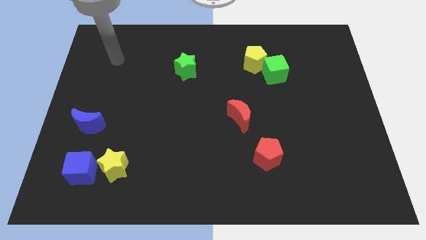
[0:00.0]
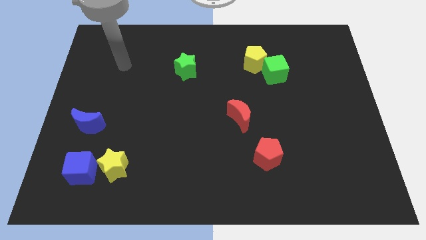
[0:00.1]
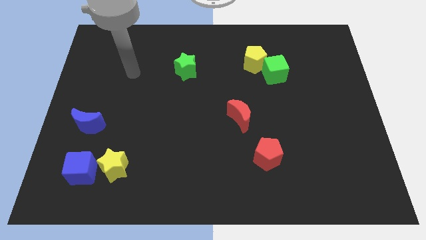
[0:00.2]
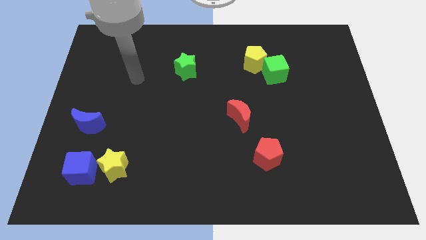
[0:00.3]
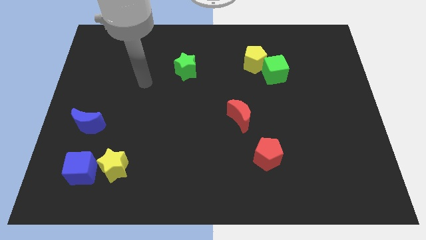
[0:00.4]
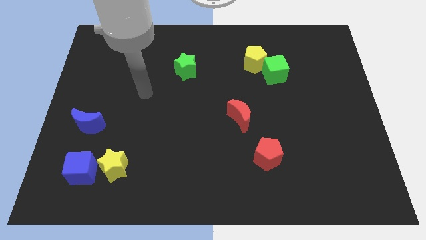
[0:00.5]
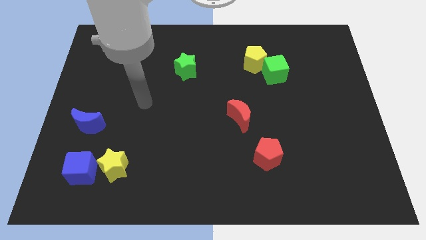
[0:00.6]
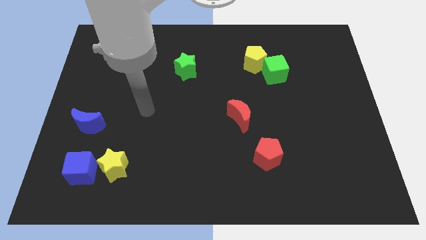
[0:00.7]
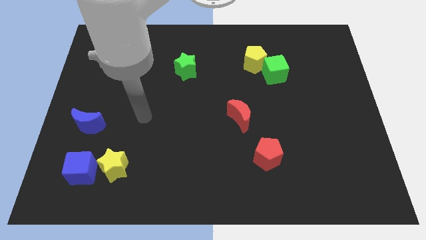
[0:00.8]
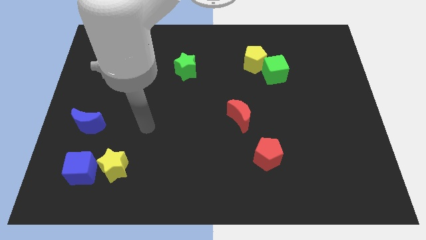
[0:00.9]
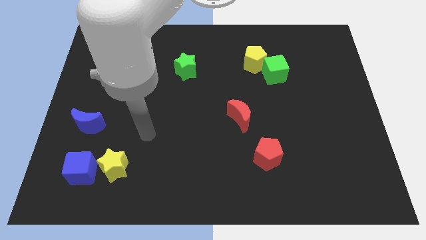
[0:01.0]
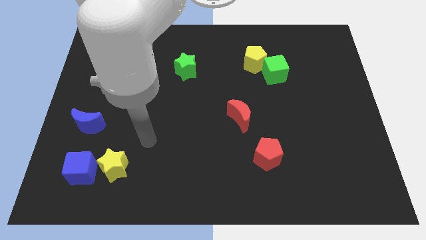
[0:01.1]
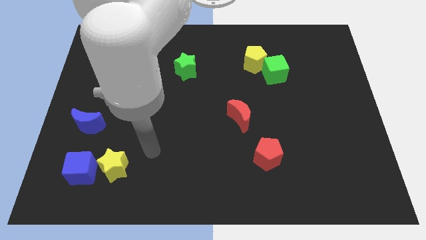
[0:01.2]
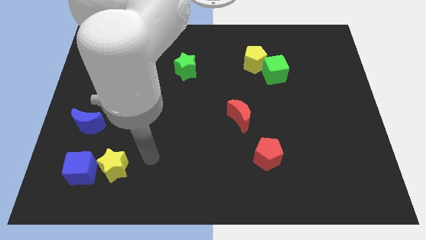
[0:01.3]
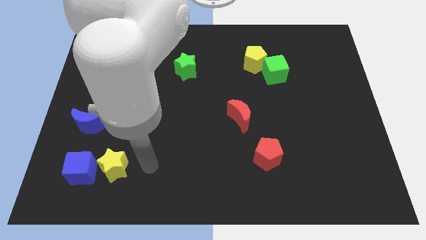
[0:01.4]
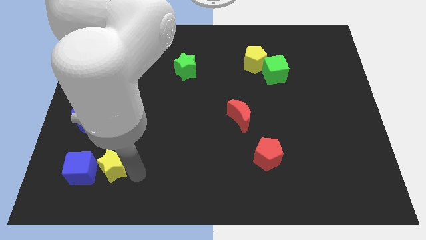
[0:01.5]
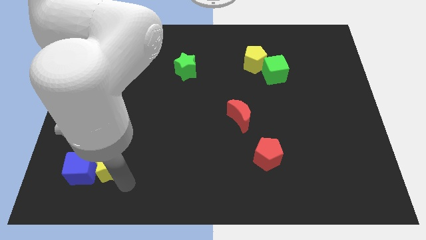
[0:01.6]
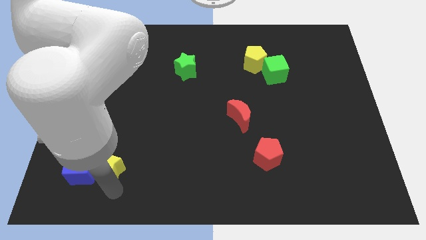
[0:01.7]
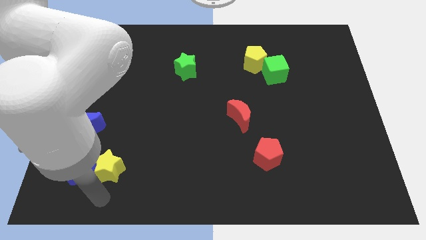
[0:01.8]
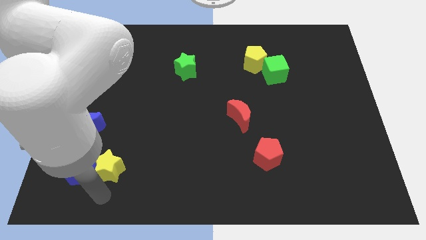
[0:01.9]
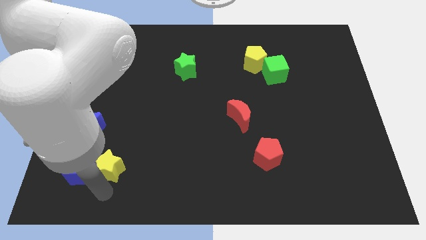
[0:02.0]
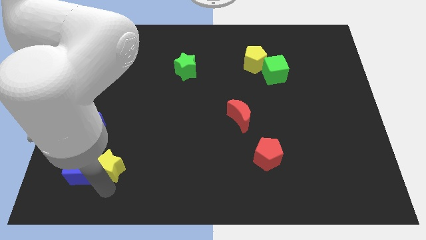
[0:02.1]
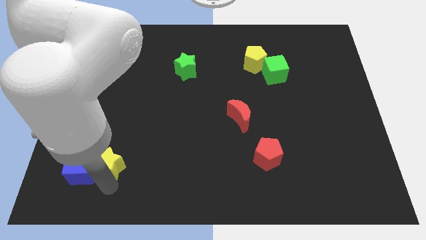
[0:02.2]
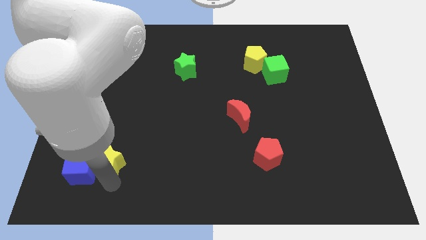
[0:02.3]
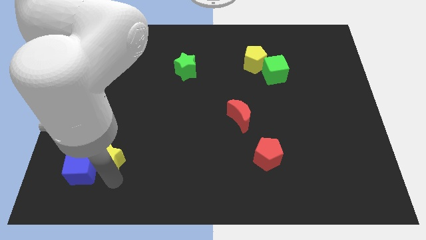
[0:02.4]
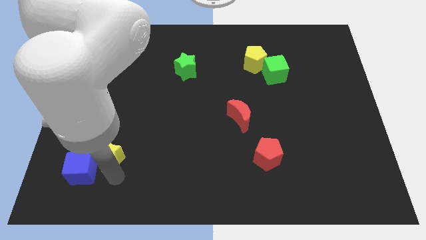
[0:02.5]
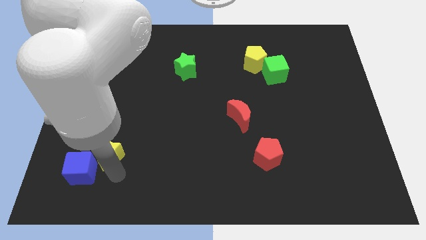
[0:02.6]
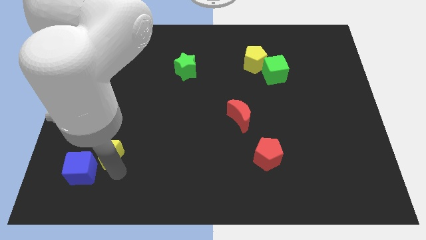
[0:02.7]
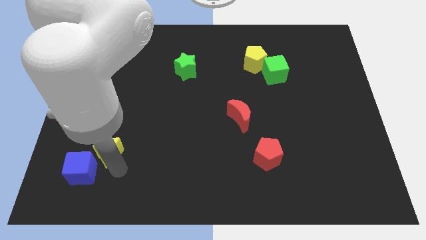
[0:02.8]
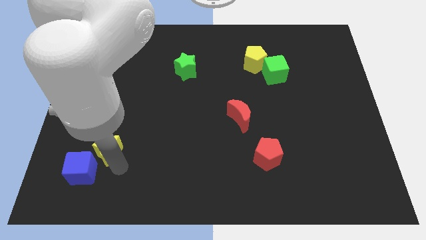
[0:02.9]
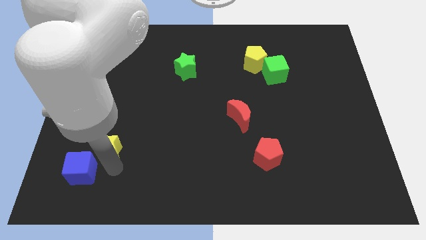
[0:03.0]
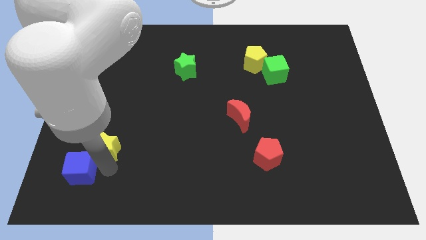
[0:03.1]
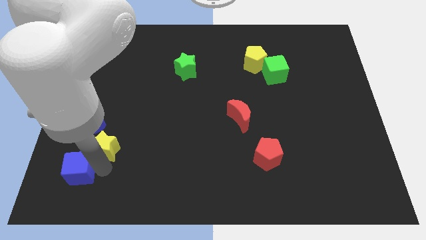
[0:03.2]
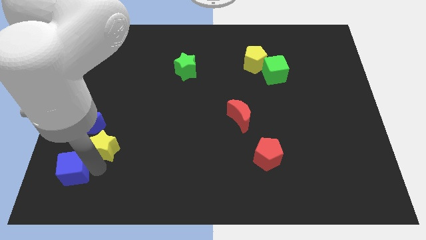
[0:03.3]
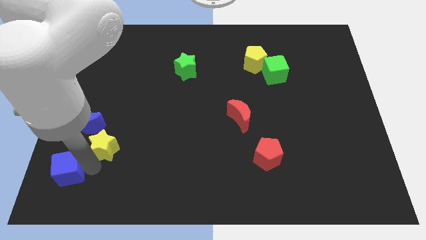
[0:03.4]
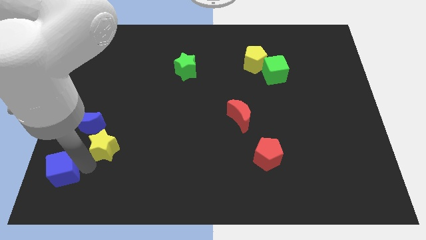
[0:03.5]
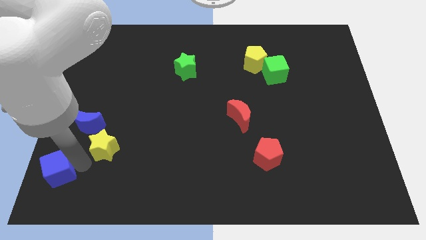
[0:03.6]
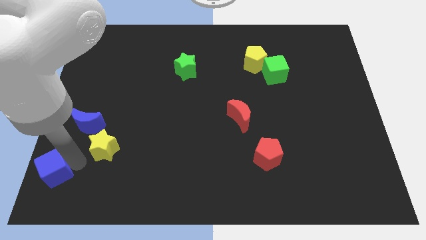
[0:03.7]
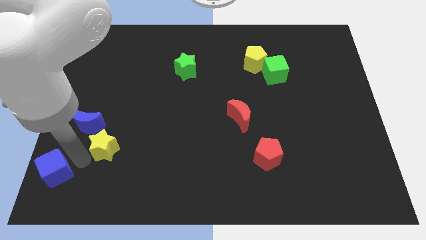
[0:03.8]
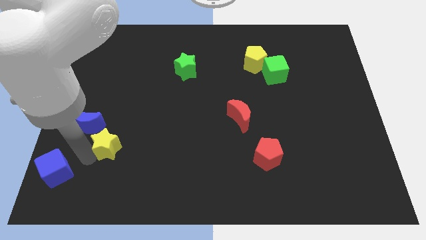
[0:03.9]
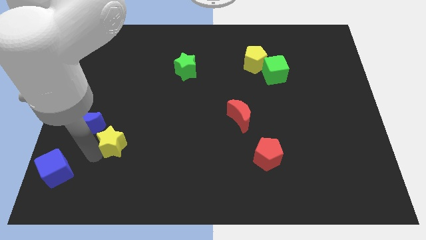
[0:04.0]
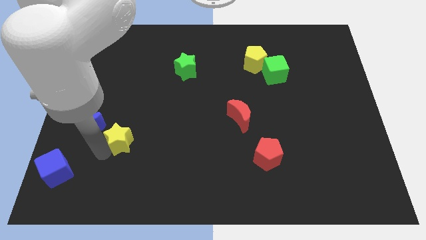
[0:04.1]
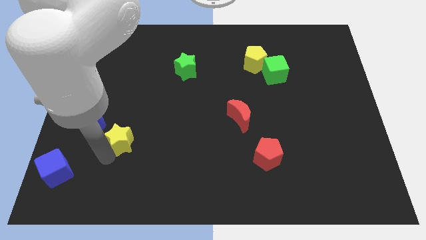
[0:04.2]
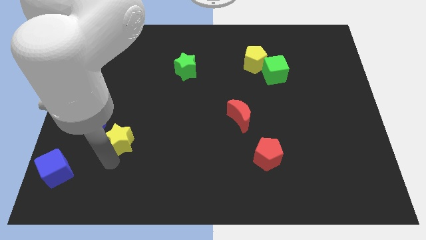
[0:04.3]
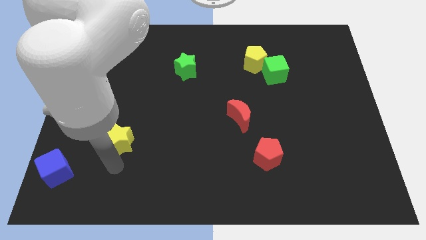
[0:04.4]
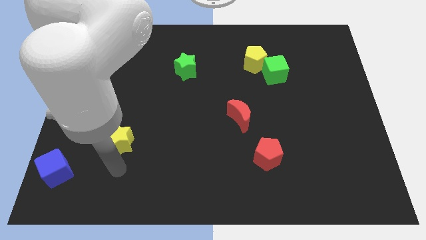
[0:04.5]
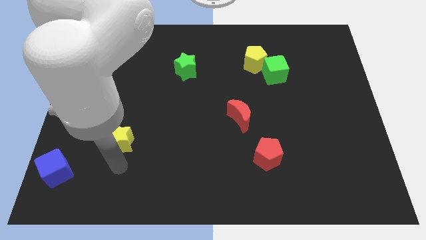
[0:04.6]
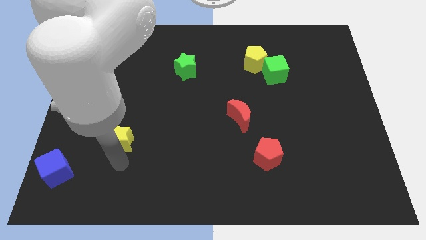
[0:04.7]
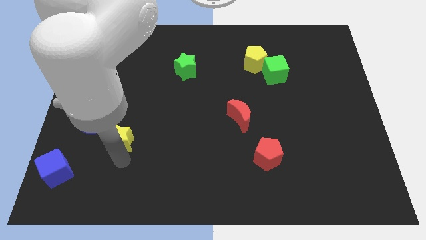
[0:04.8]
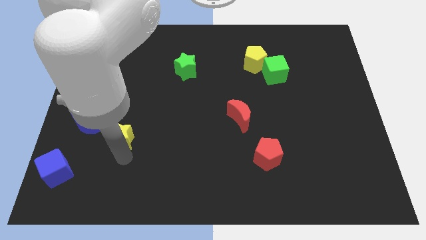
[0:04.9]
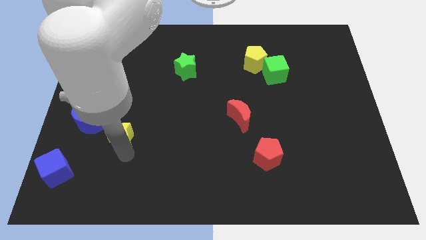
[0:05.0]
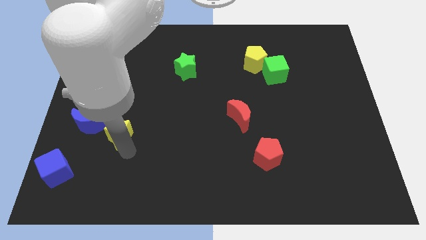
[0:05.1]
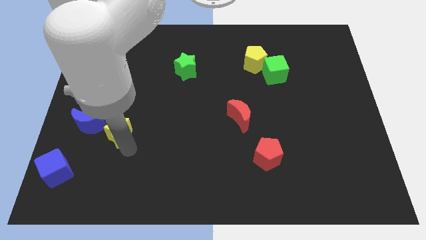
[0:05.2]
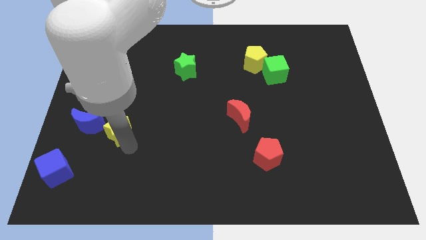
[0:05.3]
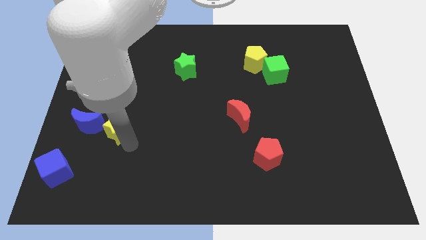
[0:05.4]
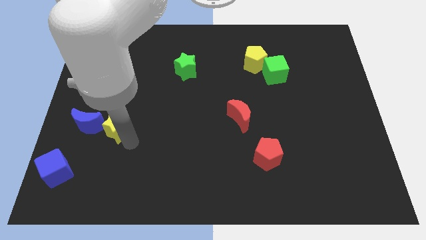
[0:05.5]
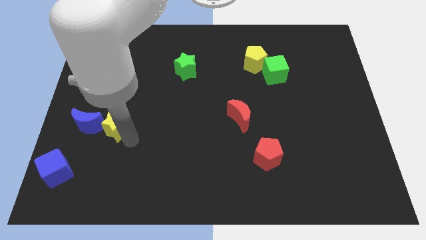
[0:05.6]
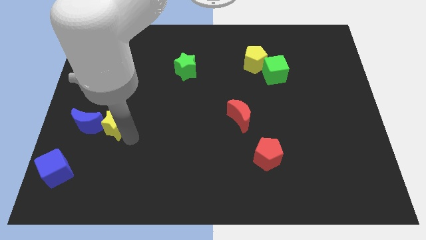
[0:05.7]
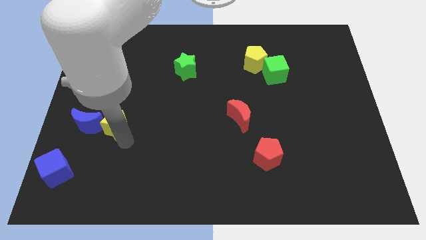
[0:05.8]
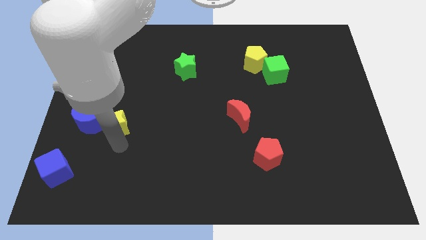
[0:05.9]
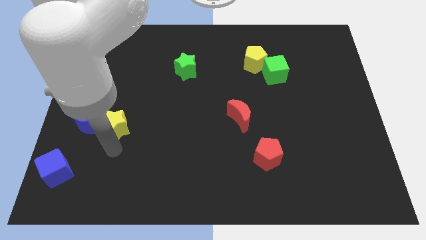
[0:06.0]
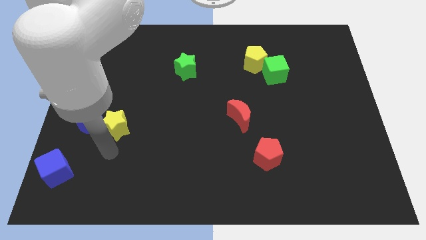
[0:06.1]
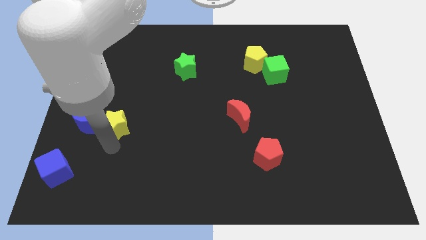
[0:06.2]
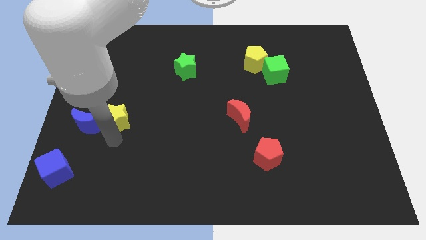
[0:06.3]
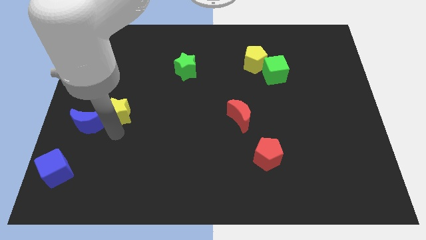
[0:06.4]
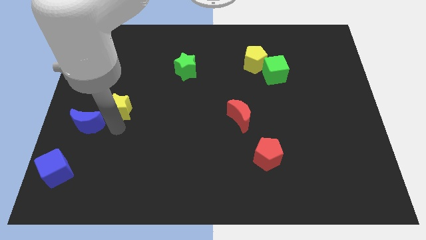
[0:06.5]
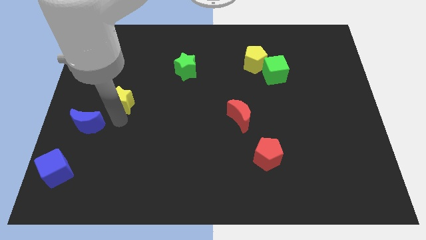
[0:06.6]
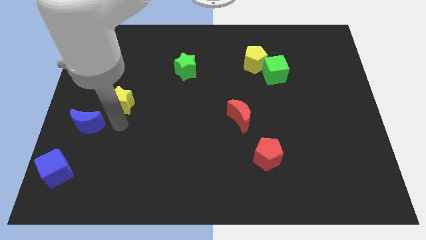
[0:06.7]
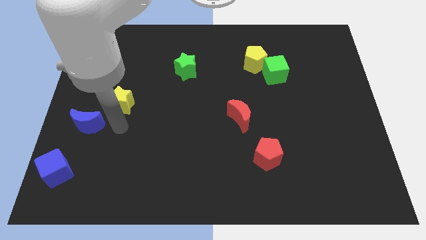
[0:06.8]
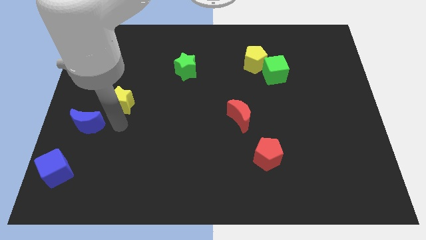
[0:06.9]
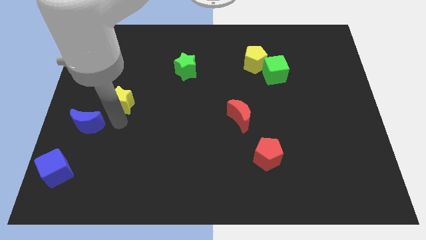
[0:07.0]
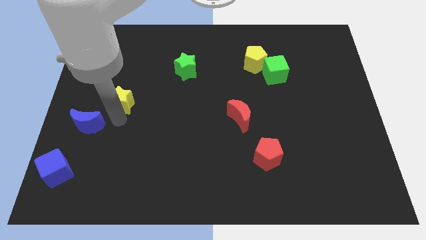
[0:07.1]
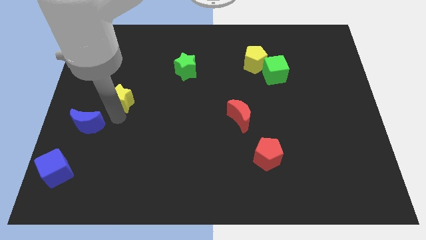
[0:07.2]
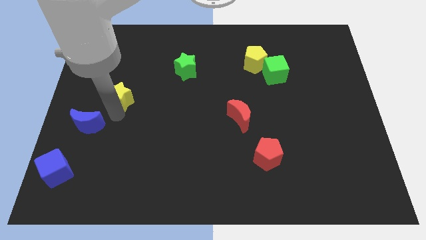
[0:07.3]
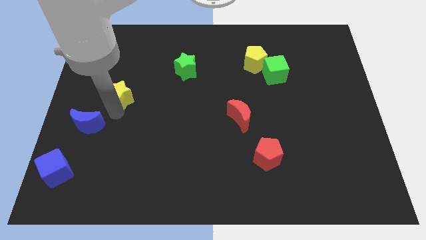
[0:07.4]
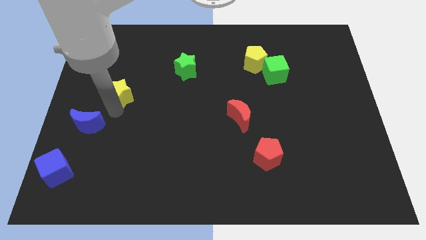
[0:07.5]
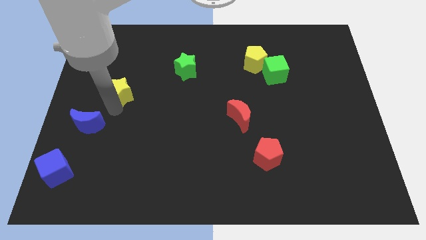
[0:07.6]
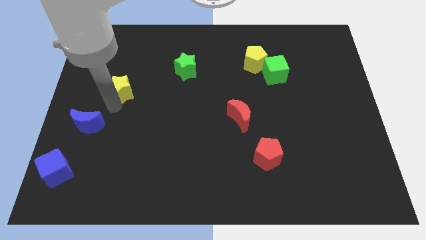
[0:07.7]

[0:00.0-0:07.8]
push the yellow star up
